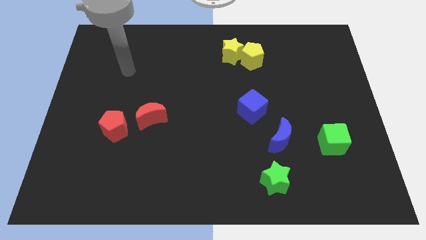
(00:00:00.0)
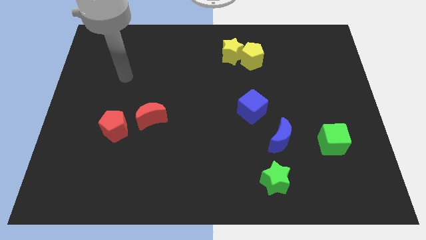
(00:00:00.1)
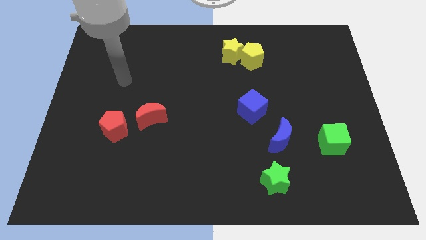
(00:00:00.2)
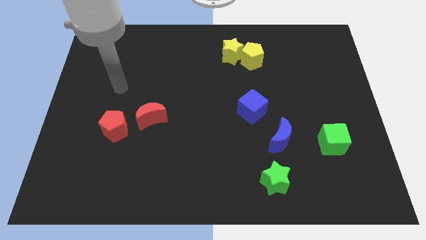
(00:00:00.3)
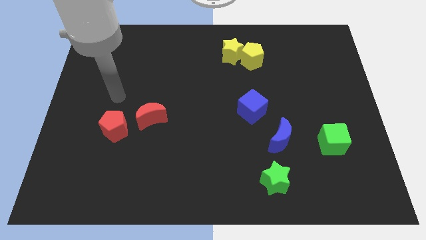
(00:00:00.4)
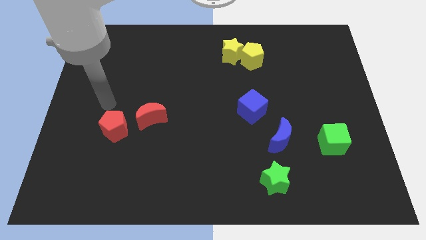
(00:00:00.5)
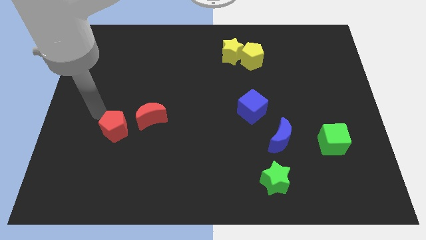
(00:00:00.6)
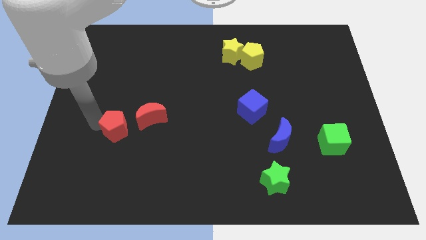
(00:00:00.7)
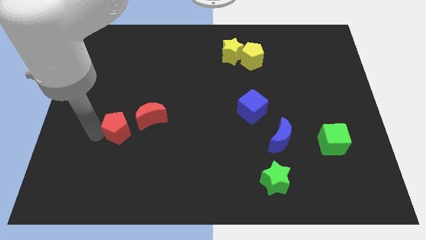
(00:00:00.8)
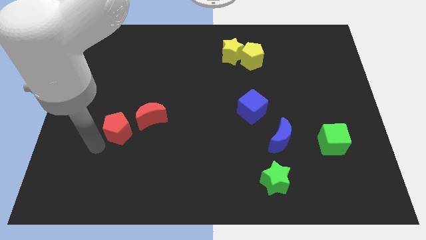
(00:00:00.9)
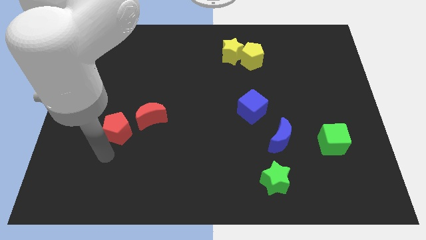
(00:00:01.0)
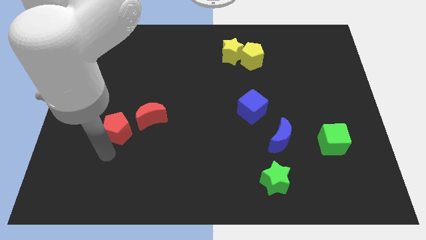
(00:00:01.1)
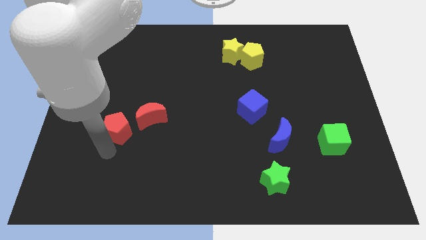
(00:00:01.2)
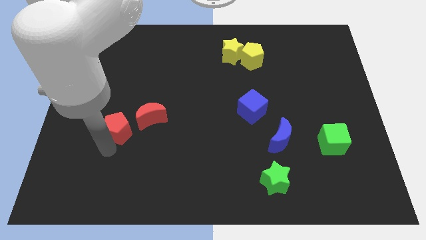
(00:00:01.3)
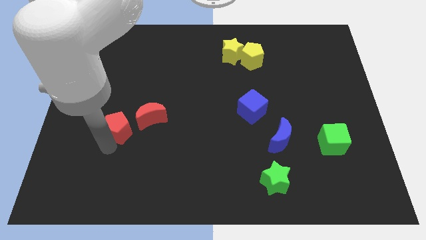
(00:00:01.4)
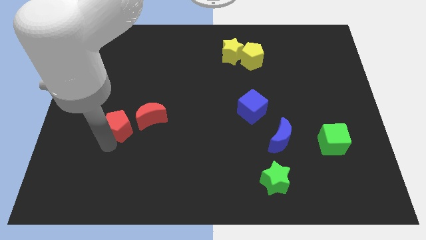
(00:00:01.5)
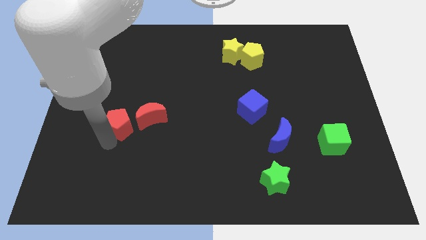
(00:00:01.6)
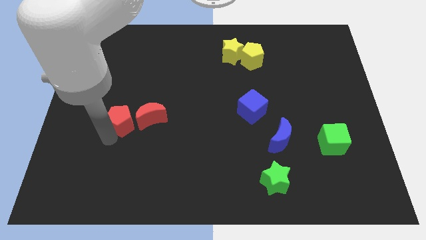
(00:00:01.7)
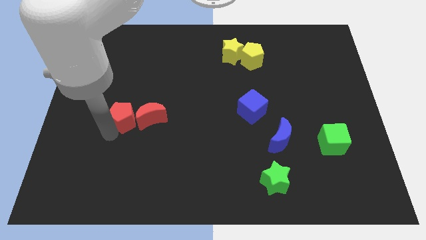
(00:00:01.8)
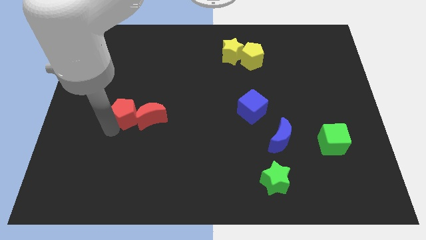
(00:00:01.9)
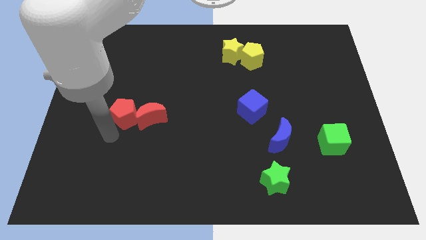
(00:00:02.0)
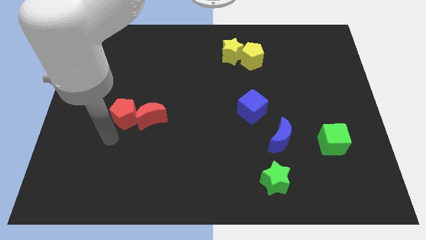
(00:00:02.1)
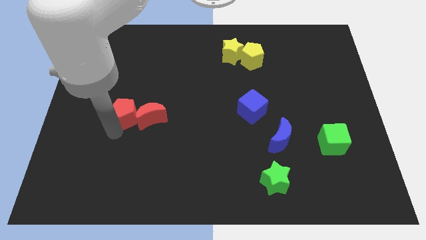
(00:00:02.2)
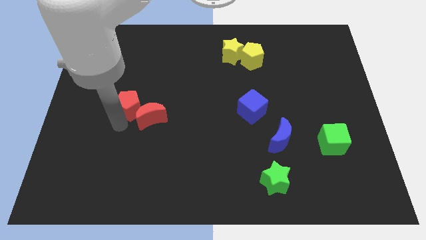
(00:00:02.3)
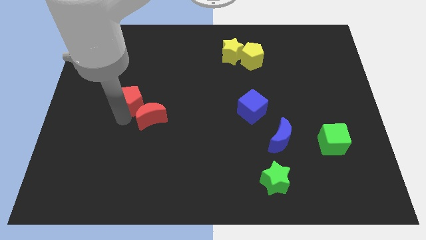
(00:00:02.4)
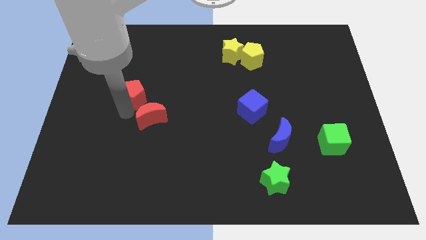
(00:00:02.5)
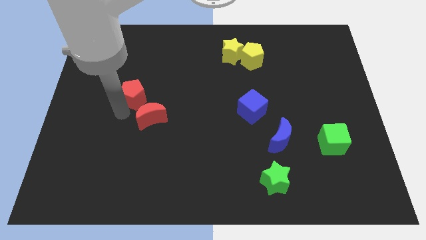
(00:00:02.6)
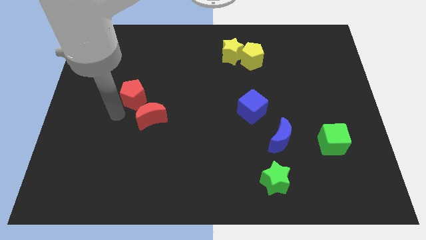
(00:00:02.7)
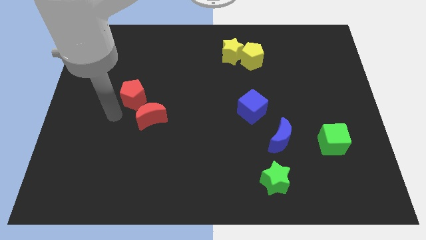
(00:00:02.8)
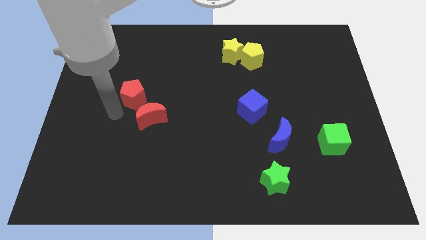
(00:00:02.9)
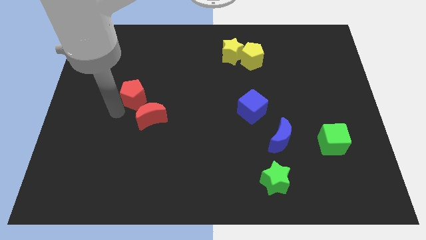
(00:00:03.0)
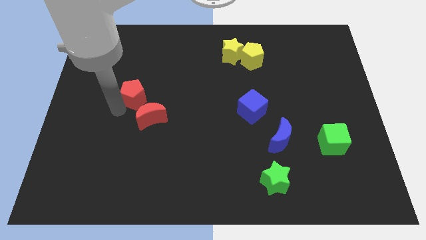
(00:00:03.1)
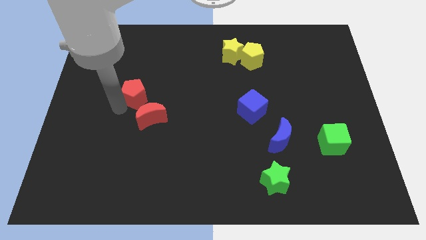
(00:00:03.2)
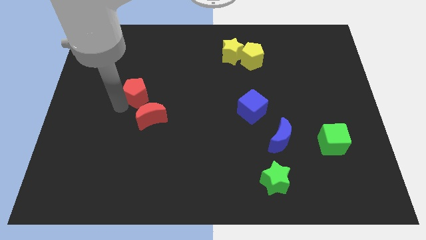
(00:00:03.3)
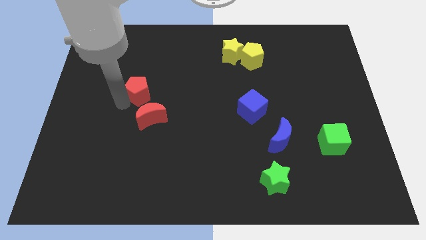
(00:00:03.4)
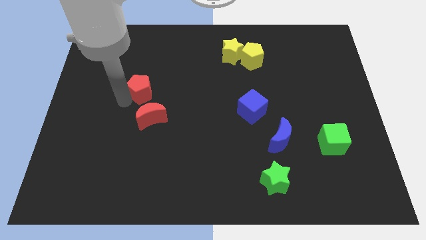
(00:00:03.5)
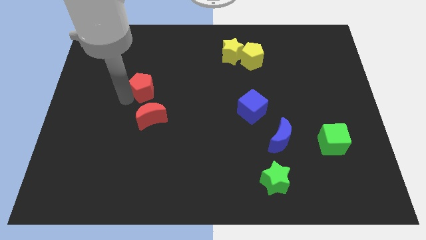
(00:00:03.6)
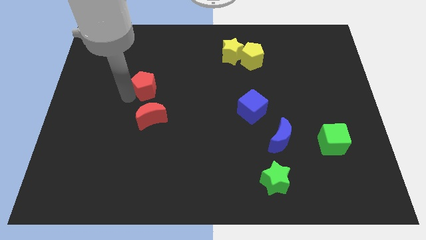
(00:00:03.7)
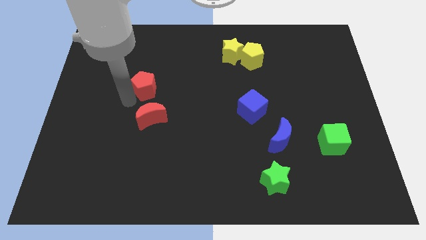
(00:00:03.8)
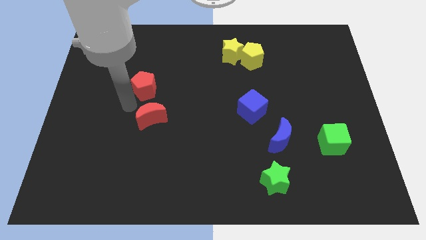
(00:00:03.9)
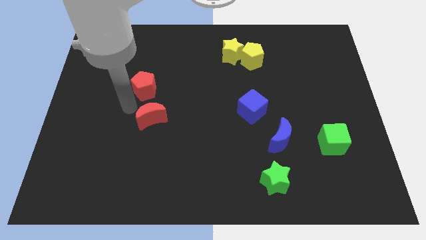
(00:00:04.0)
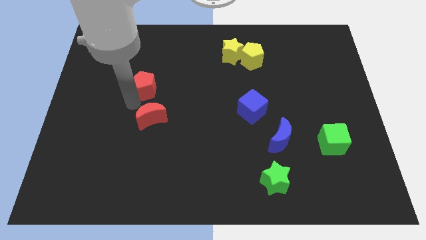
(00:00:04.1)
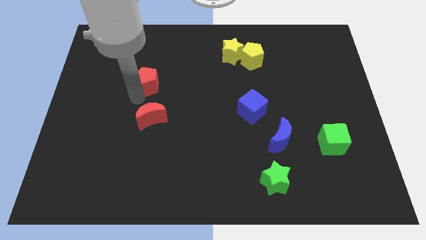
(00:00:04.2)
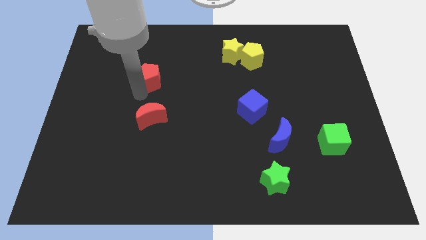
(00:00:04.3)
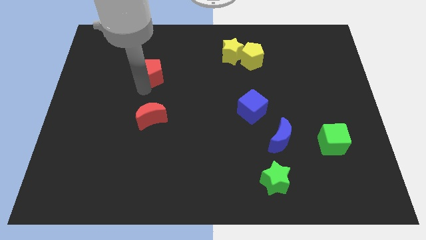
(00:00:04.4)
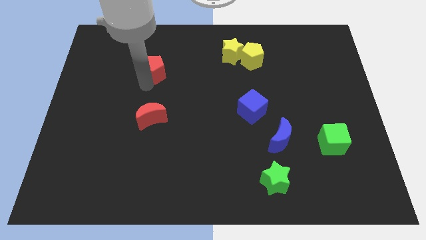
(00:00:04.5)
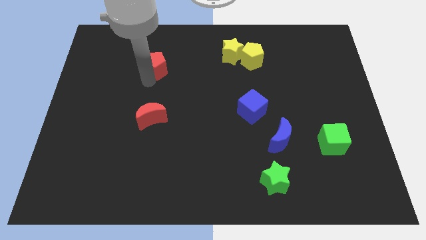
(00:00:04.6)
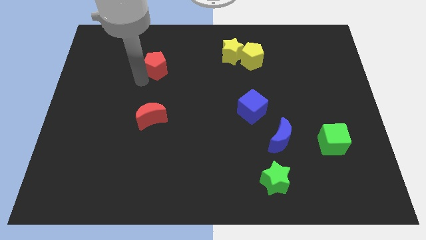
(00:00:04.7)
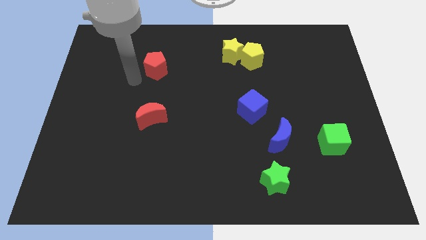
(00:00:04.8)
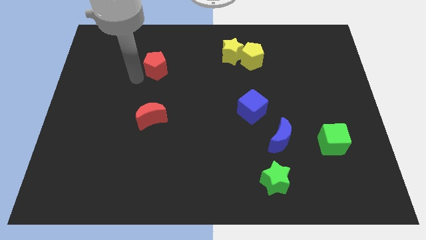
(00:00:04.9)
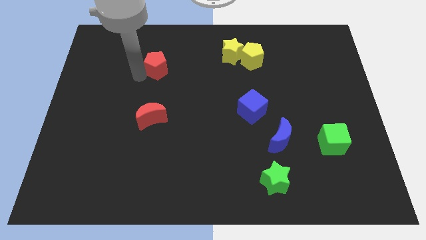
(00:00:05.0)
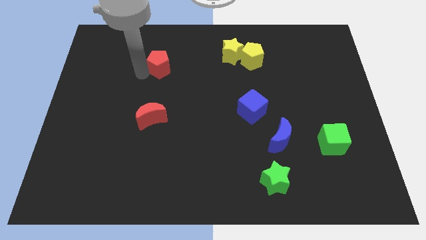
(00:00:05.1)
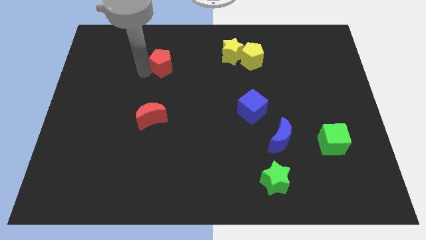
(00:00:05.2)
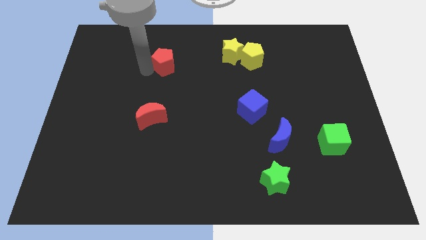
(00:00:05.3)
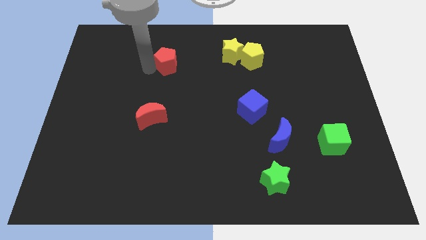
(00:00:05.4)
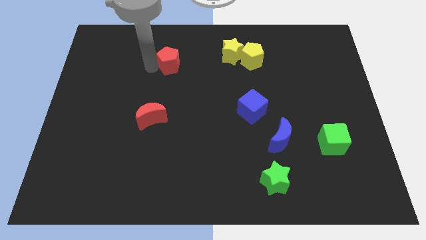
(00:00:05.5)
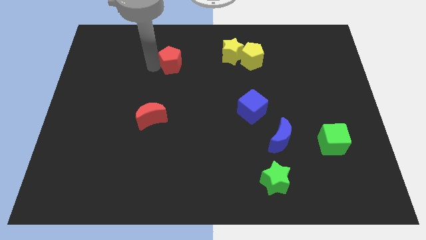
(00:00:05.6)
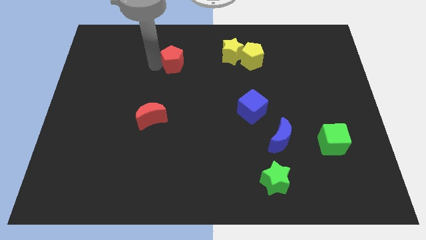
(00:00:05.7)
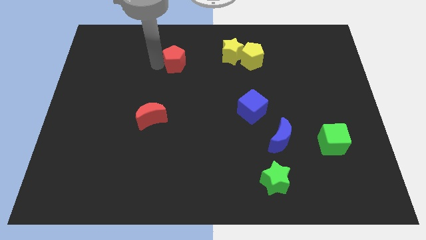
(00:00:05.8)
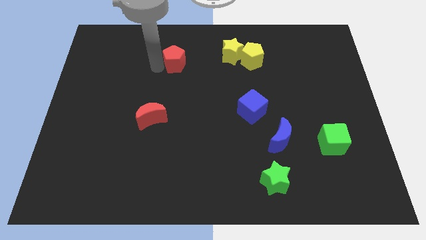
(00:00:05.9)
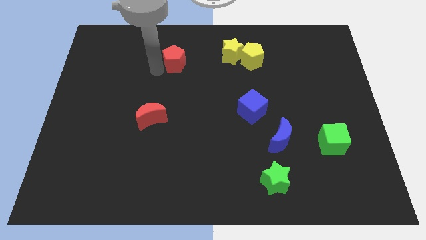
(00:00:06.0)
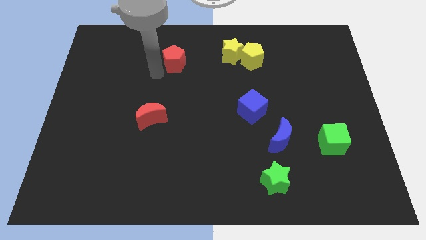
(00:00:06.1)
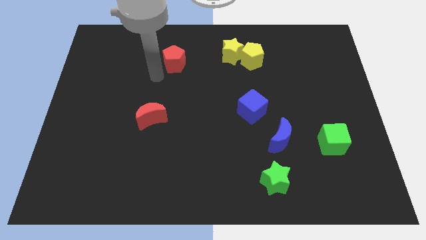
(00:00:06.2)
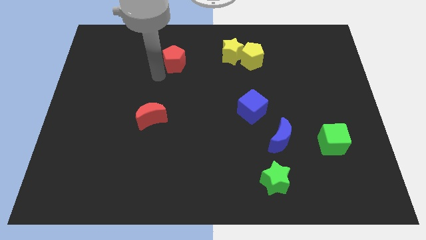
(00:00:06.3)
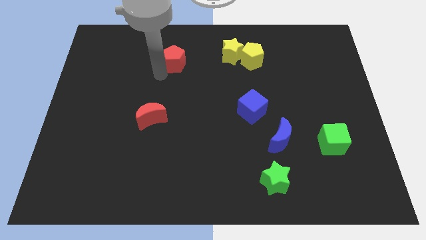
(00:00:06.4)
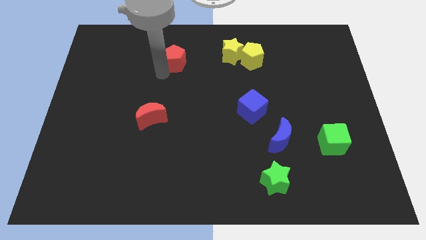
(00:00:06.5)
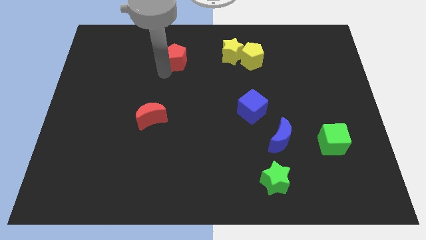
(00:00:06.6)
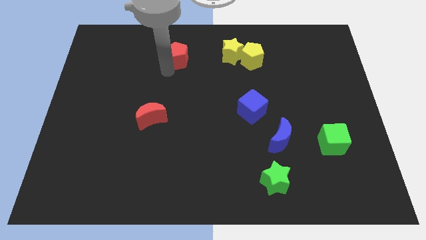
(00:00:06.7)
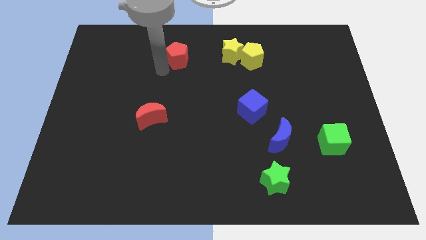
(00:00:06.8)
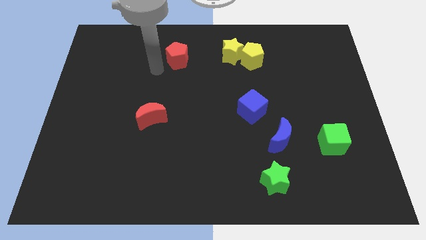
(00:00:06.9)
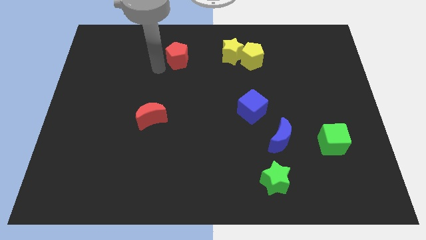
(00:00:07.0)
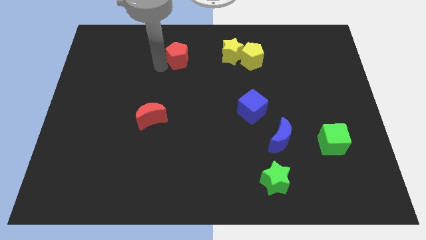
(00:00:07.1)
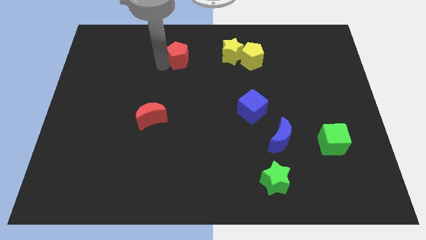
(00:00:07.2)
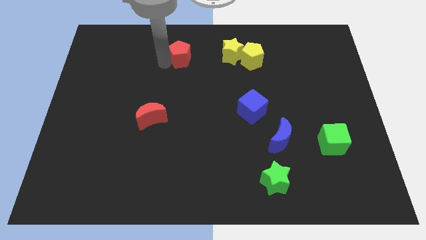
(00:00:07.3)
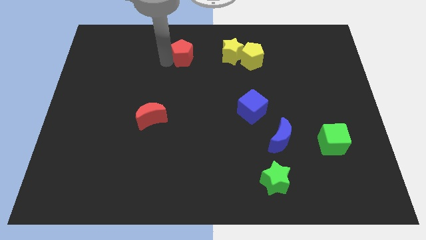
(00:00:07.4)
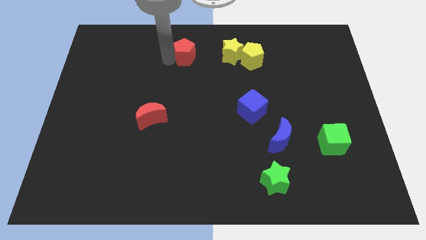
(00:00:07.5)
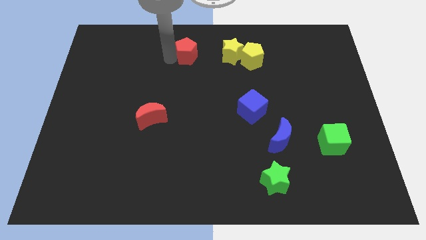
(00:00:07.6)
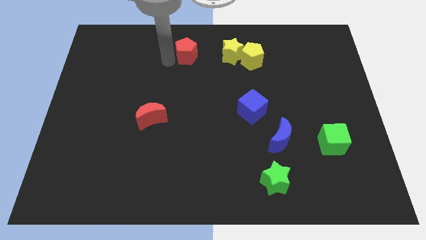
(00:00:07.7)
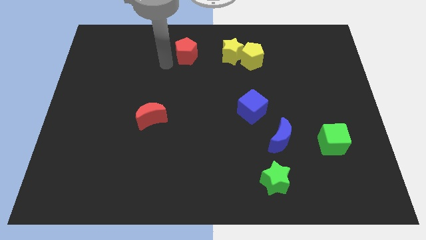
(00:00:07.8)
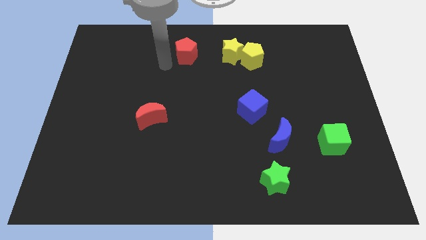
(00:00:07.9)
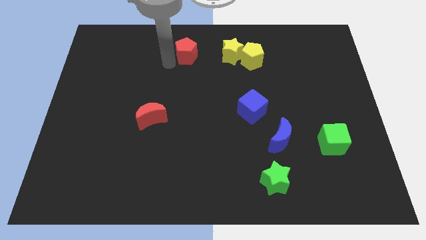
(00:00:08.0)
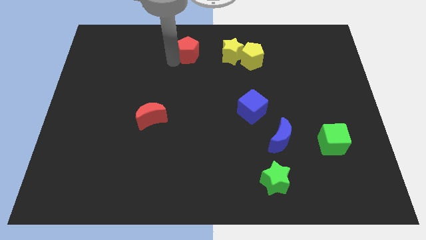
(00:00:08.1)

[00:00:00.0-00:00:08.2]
slide the red pentagon to the top
